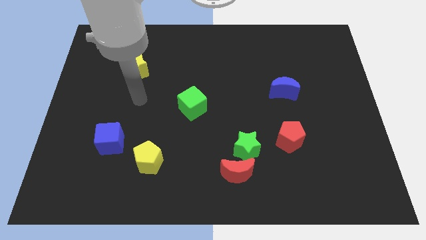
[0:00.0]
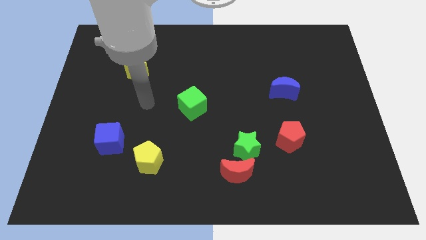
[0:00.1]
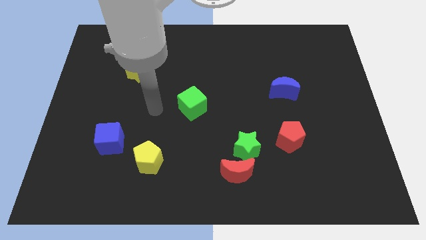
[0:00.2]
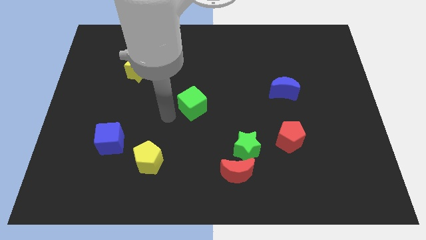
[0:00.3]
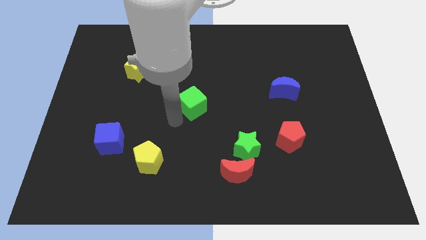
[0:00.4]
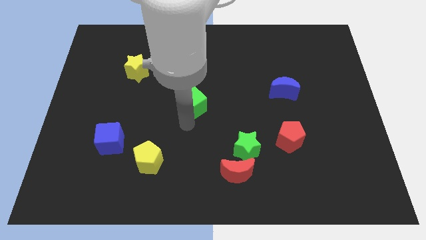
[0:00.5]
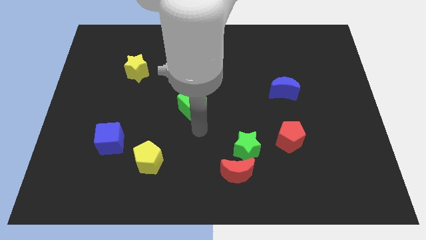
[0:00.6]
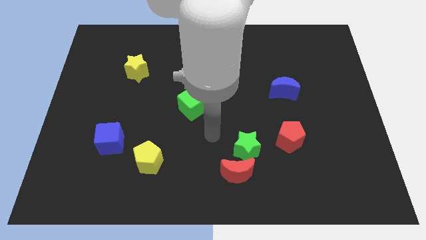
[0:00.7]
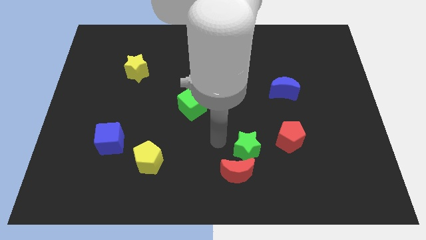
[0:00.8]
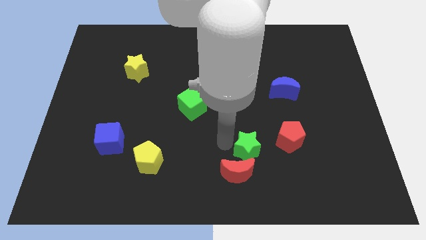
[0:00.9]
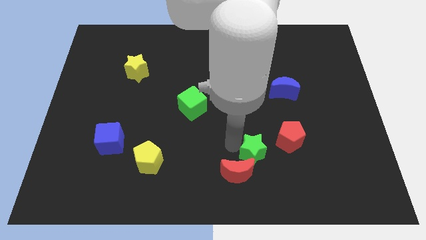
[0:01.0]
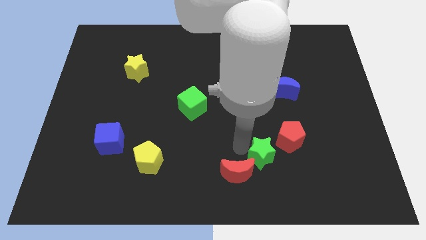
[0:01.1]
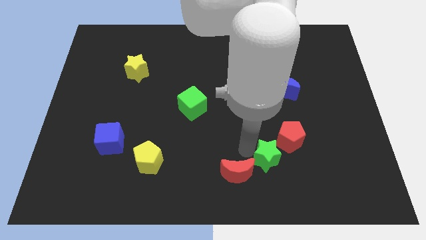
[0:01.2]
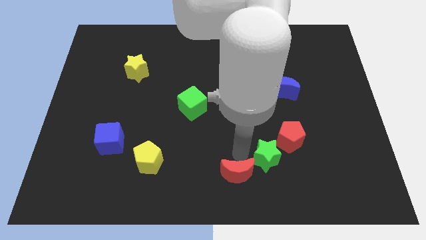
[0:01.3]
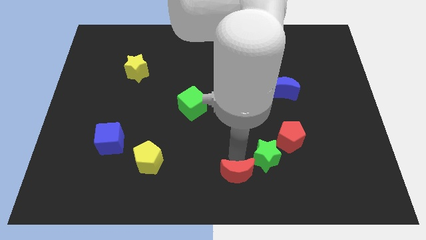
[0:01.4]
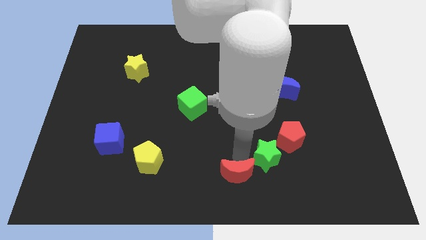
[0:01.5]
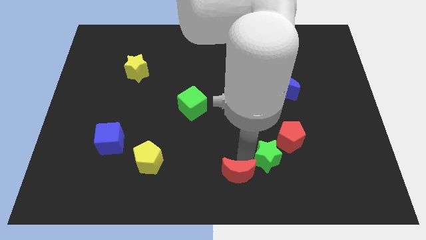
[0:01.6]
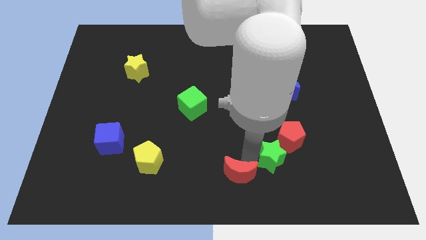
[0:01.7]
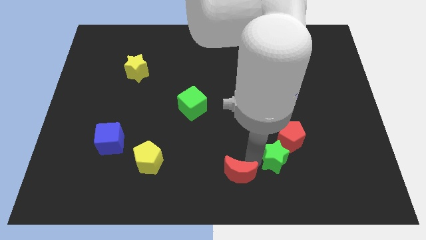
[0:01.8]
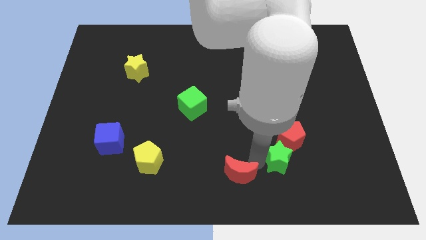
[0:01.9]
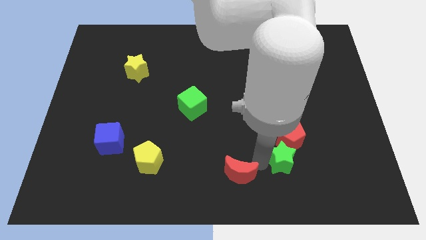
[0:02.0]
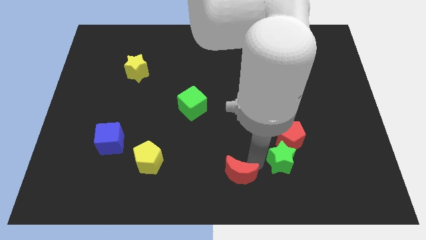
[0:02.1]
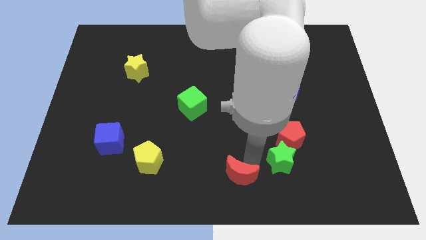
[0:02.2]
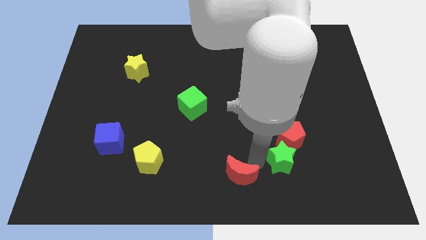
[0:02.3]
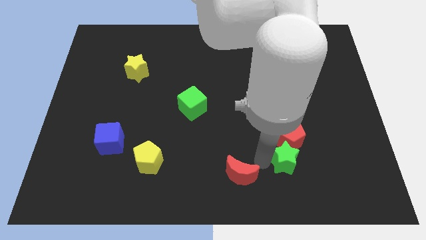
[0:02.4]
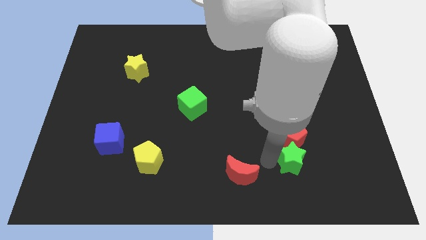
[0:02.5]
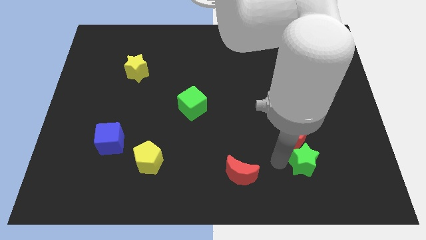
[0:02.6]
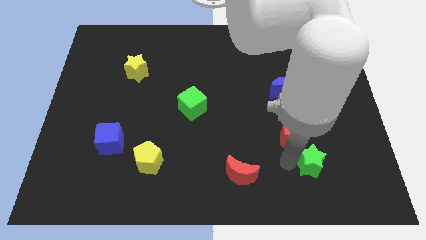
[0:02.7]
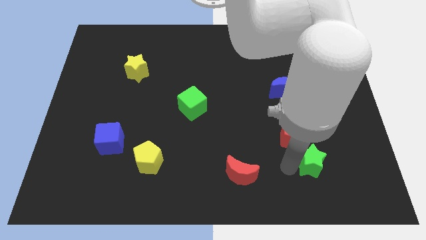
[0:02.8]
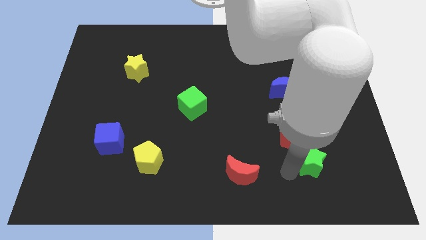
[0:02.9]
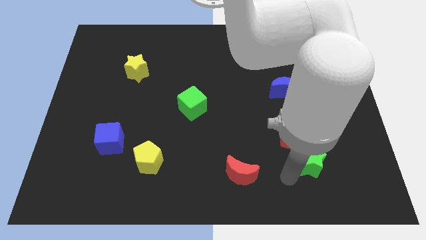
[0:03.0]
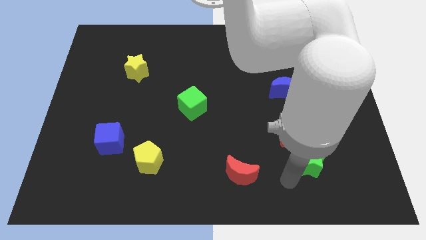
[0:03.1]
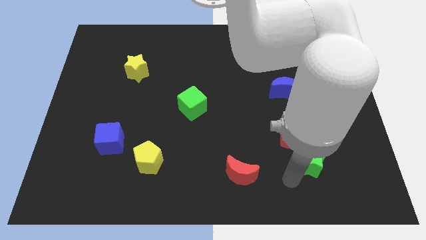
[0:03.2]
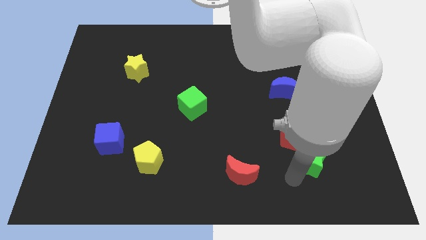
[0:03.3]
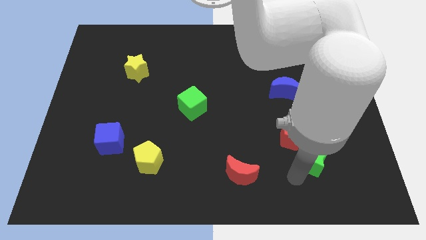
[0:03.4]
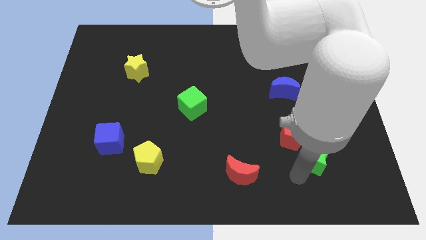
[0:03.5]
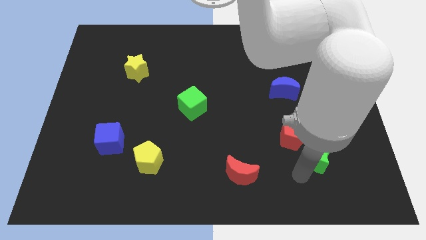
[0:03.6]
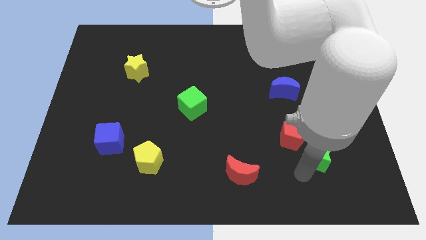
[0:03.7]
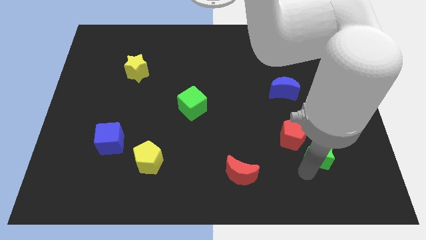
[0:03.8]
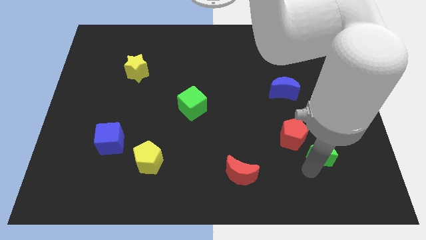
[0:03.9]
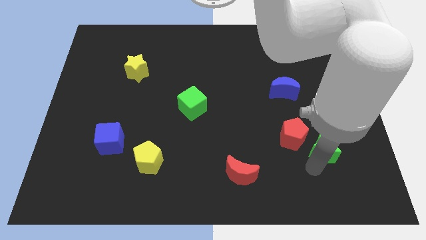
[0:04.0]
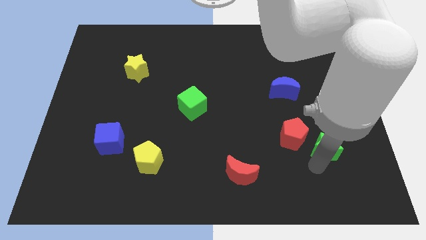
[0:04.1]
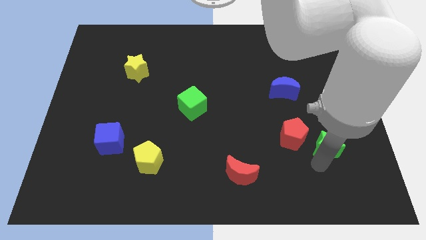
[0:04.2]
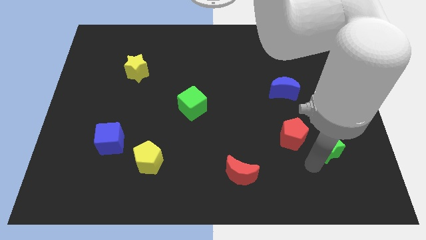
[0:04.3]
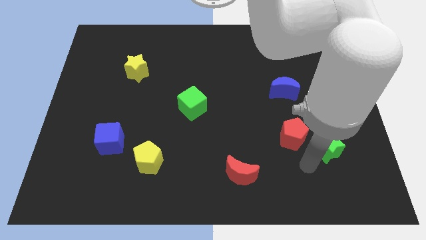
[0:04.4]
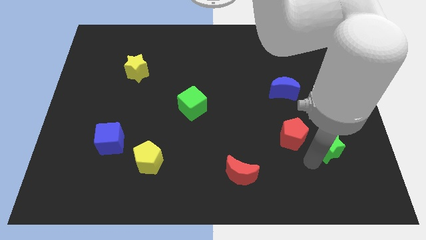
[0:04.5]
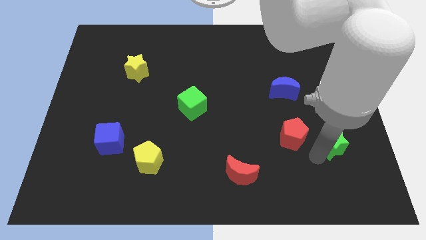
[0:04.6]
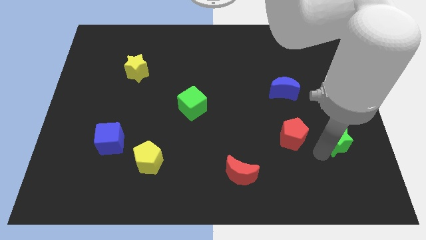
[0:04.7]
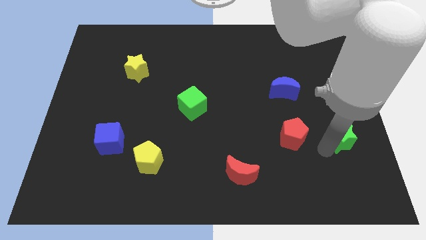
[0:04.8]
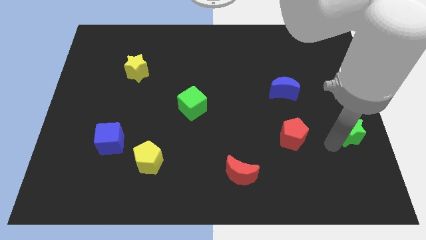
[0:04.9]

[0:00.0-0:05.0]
push the green star to the right side of the board

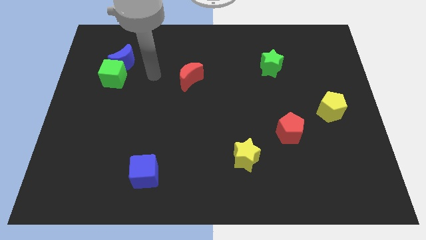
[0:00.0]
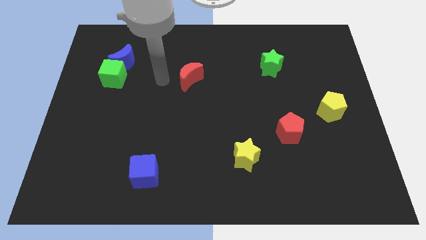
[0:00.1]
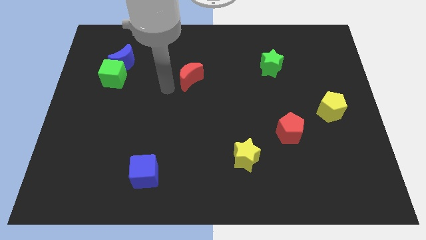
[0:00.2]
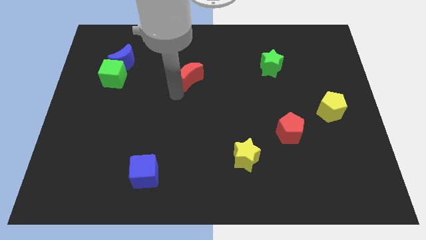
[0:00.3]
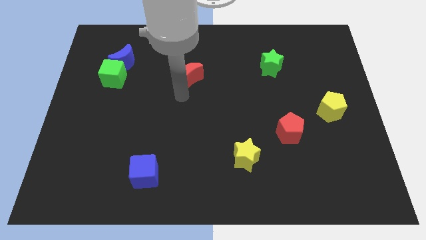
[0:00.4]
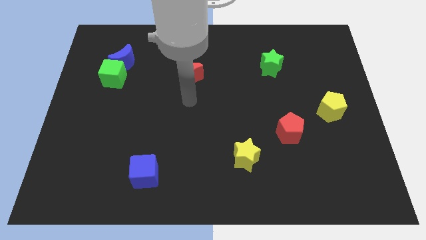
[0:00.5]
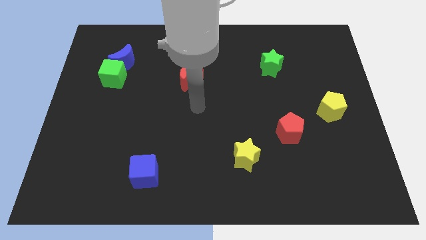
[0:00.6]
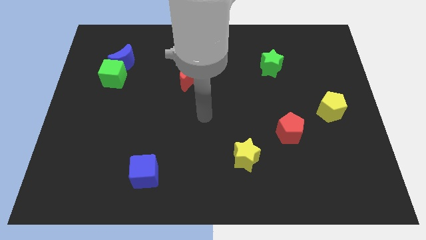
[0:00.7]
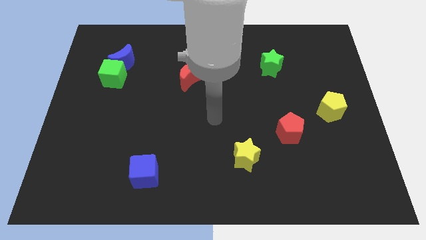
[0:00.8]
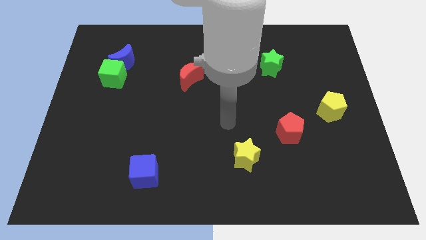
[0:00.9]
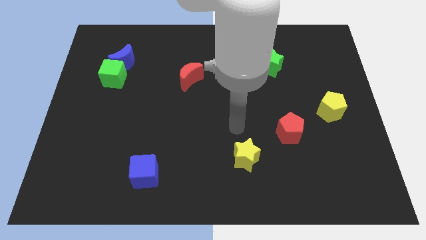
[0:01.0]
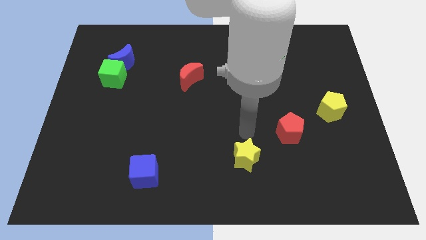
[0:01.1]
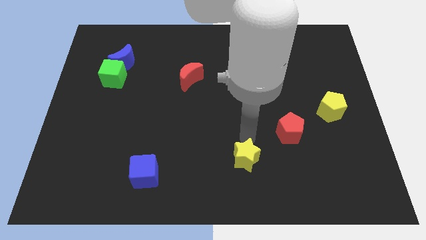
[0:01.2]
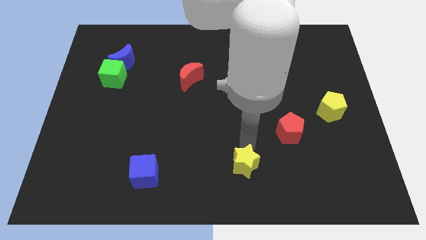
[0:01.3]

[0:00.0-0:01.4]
move the yellow star to the bottom

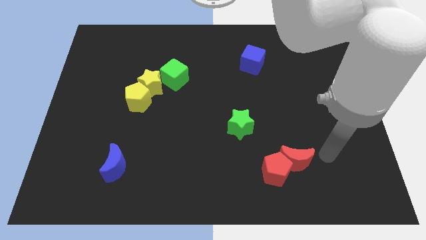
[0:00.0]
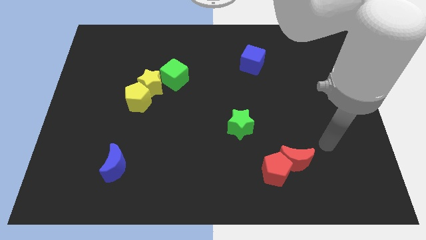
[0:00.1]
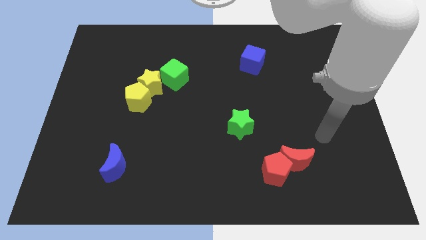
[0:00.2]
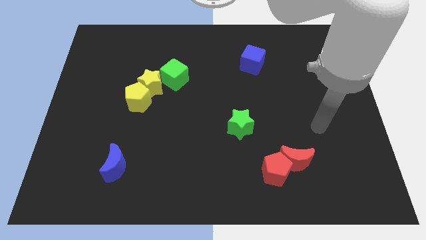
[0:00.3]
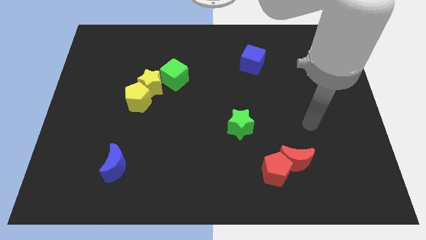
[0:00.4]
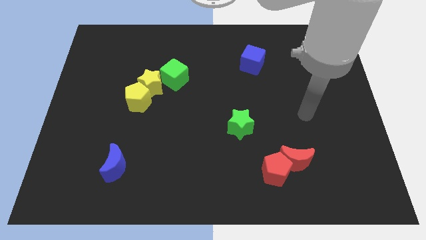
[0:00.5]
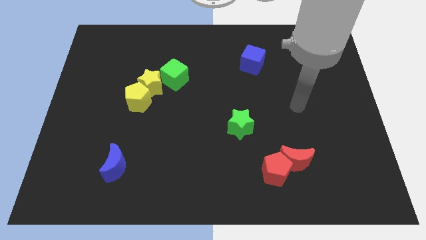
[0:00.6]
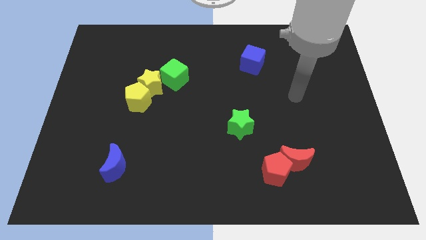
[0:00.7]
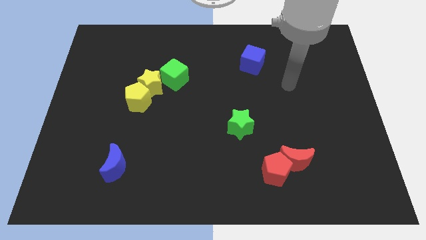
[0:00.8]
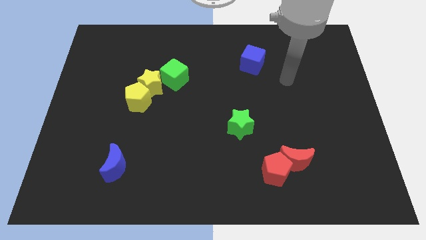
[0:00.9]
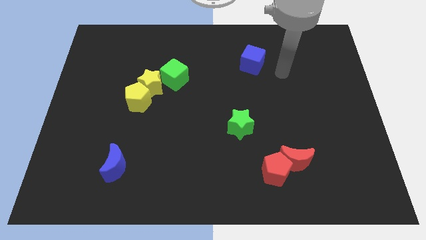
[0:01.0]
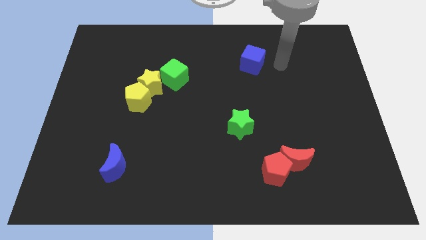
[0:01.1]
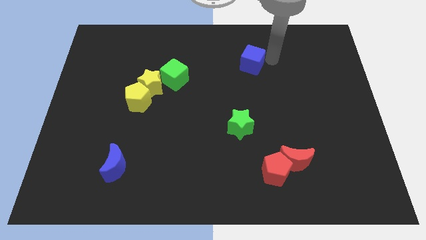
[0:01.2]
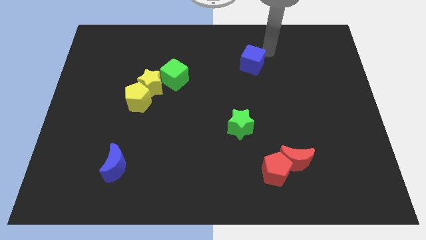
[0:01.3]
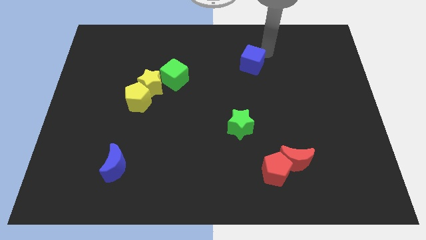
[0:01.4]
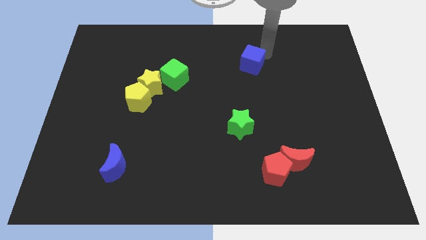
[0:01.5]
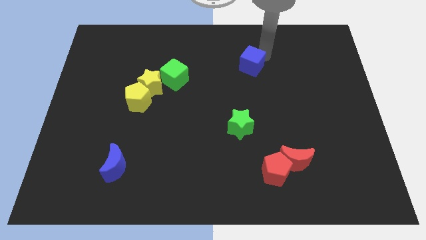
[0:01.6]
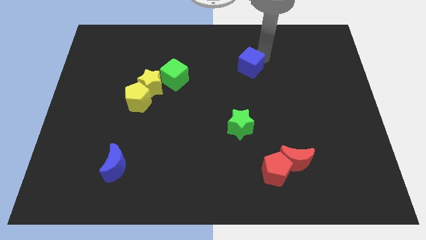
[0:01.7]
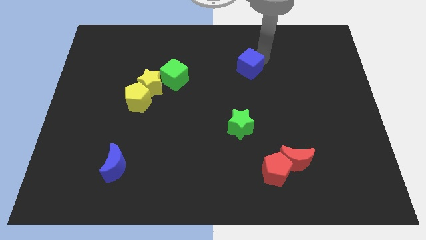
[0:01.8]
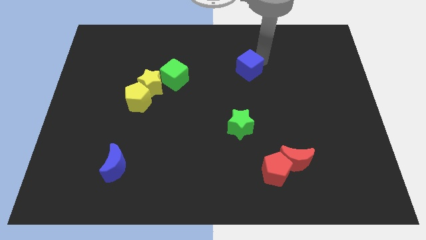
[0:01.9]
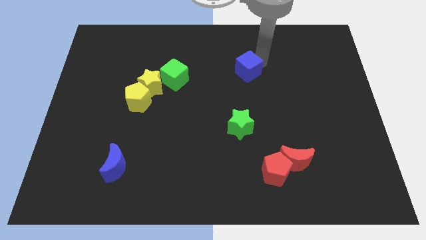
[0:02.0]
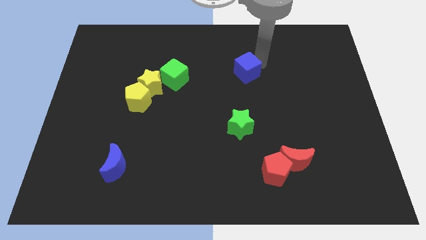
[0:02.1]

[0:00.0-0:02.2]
put the blue cube to the center
